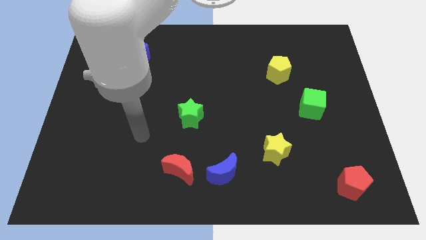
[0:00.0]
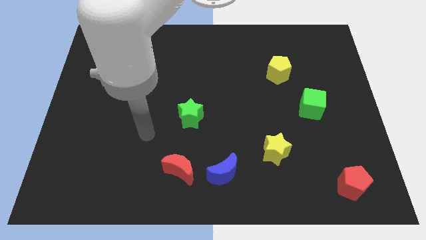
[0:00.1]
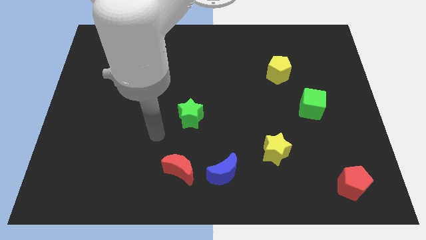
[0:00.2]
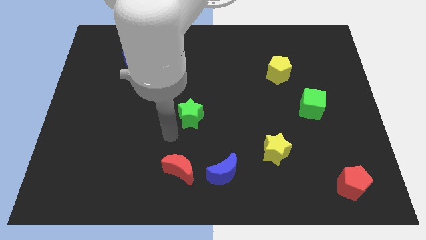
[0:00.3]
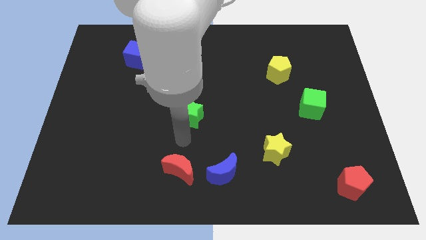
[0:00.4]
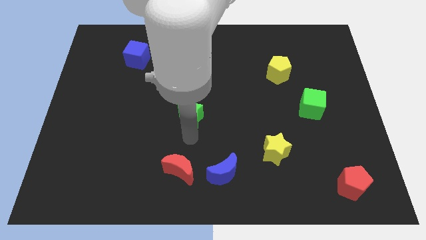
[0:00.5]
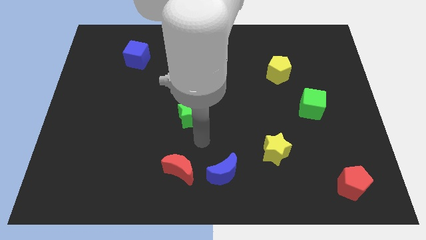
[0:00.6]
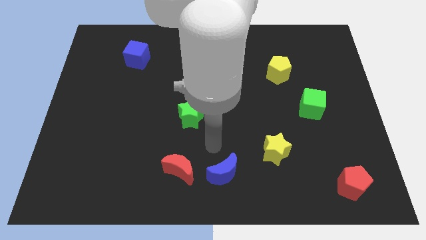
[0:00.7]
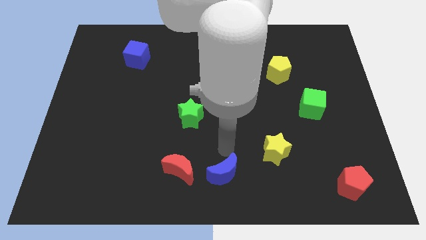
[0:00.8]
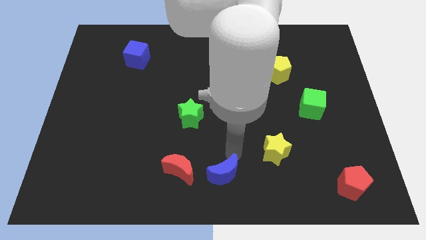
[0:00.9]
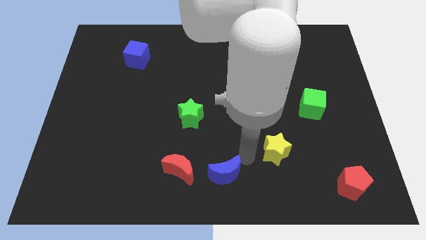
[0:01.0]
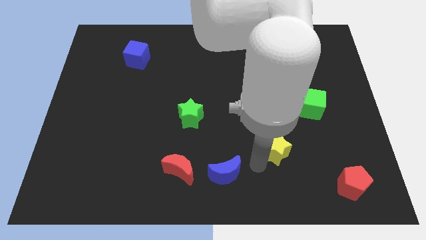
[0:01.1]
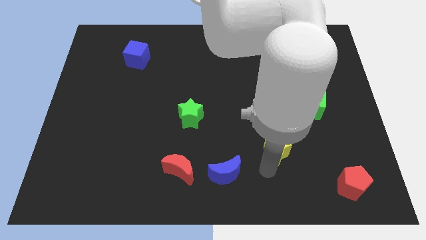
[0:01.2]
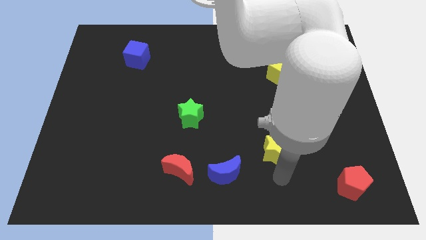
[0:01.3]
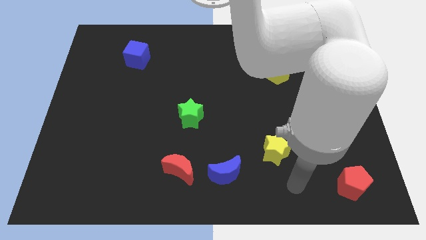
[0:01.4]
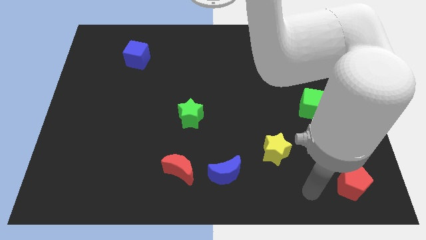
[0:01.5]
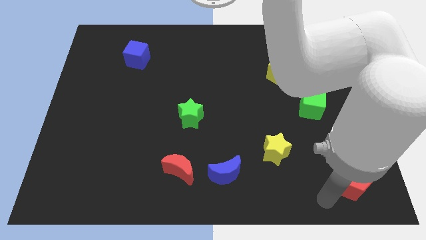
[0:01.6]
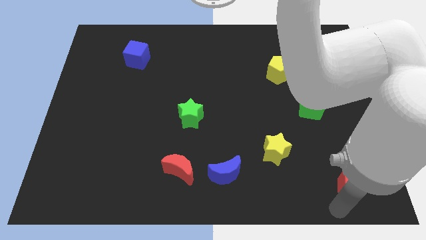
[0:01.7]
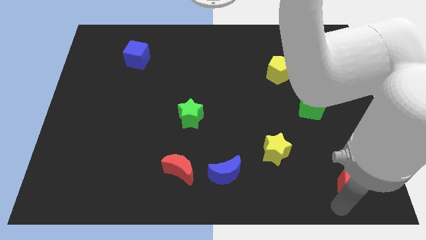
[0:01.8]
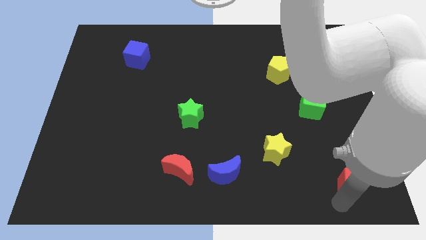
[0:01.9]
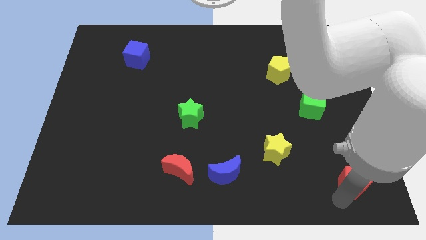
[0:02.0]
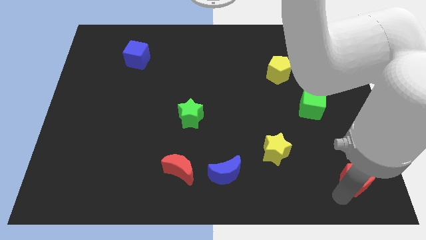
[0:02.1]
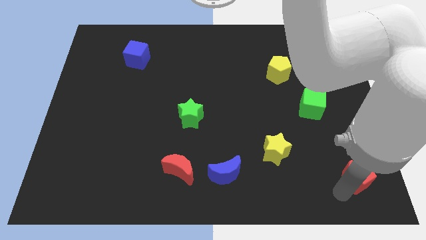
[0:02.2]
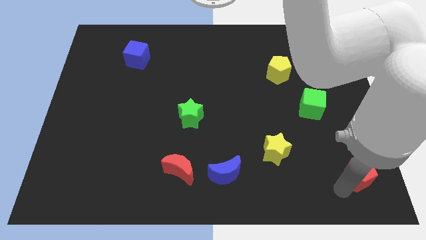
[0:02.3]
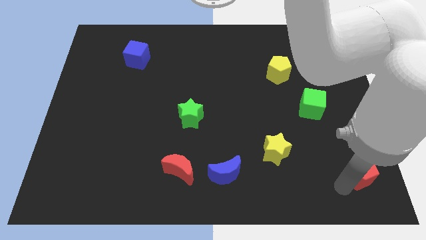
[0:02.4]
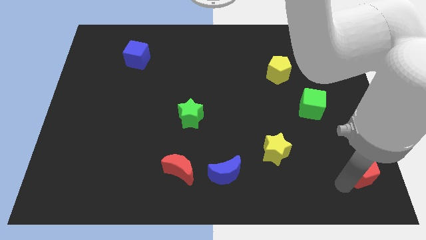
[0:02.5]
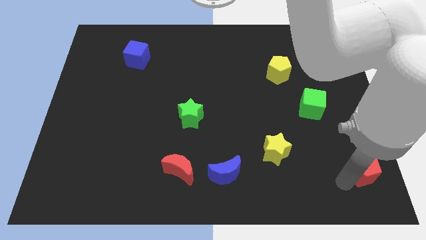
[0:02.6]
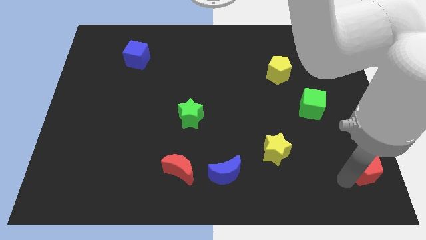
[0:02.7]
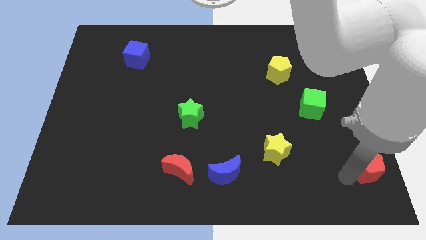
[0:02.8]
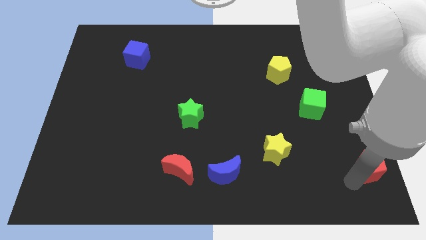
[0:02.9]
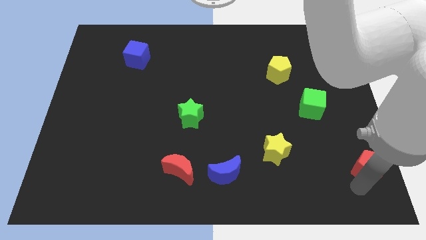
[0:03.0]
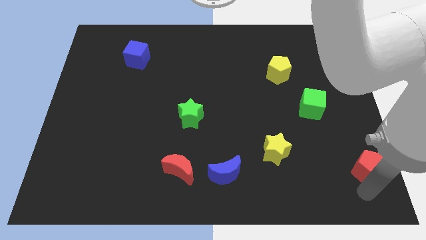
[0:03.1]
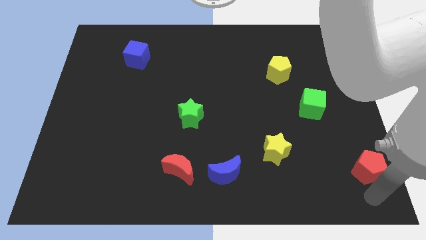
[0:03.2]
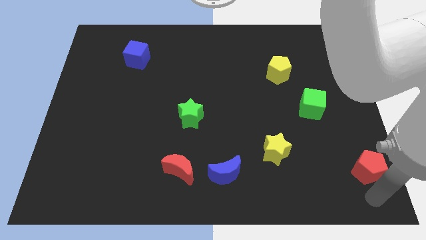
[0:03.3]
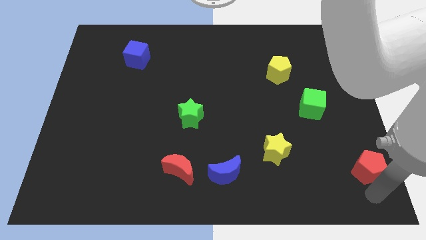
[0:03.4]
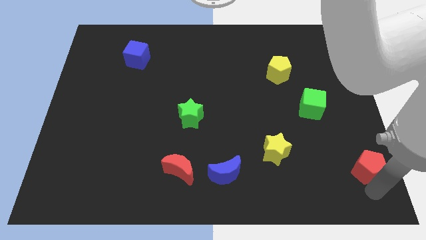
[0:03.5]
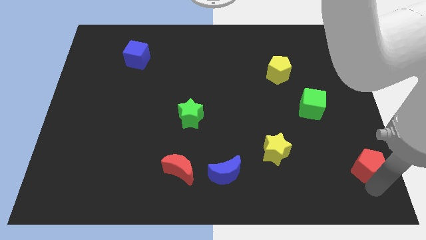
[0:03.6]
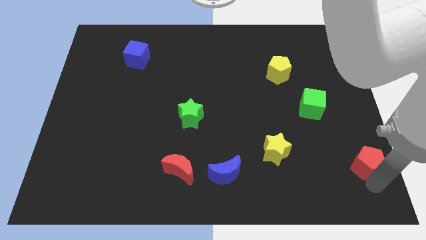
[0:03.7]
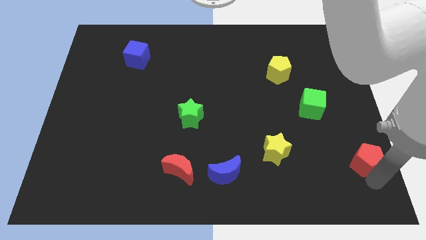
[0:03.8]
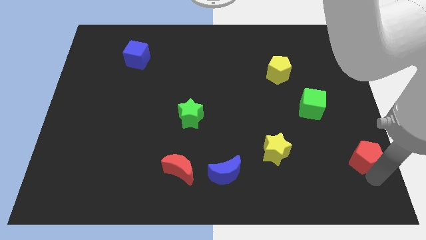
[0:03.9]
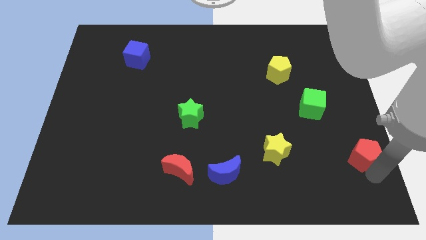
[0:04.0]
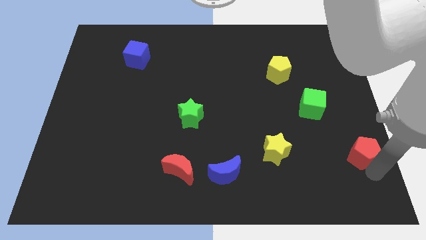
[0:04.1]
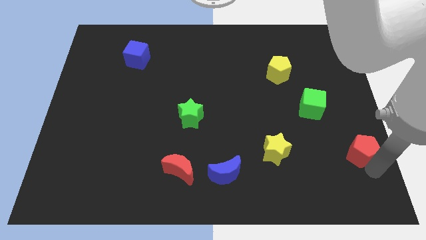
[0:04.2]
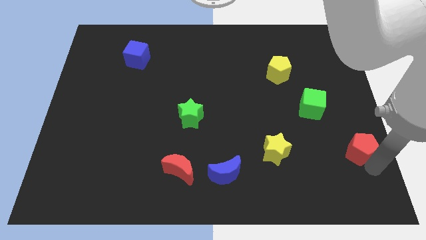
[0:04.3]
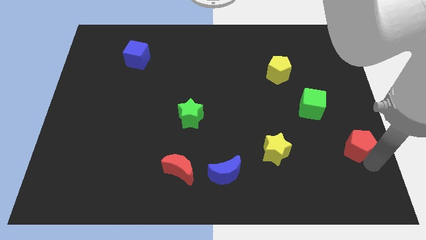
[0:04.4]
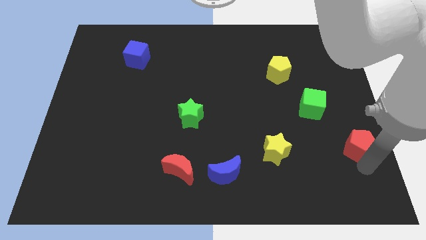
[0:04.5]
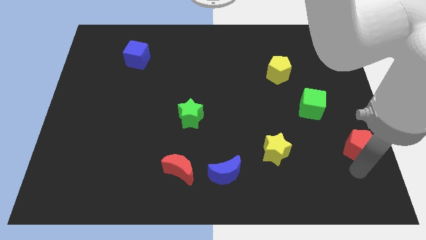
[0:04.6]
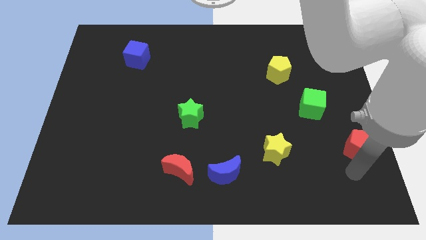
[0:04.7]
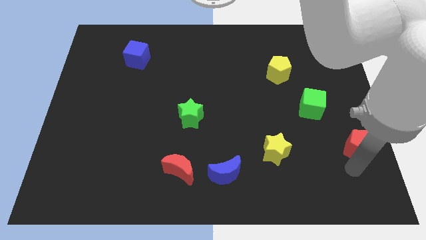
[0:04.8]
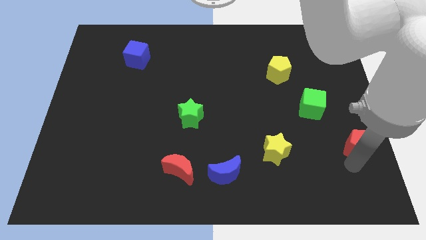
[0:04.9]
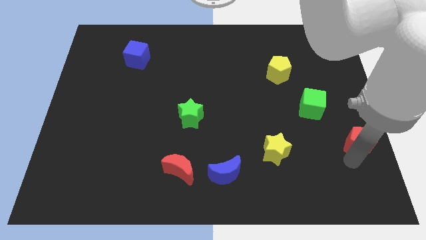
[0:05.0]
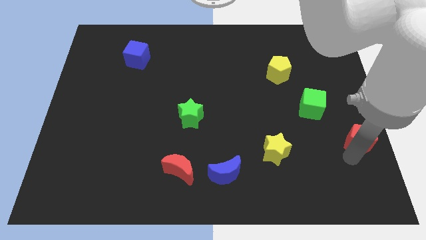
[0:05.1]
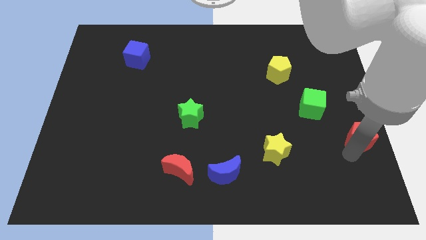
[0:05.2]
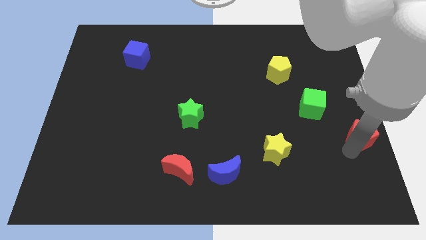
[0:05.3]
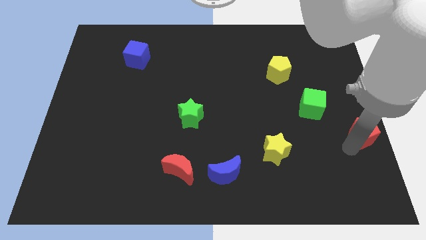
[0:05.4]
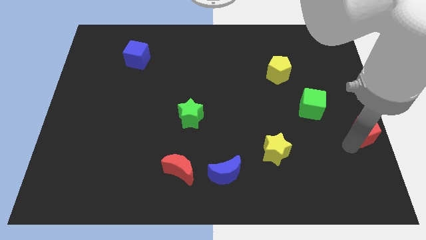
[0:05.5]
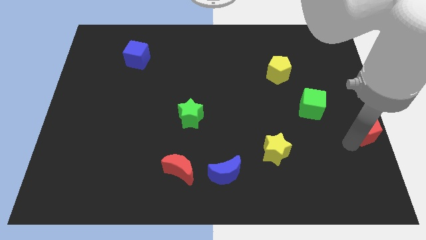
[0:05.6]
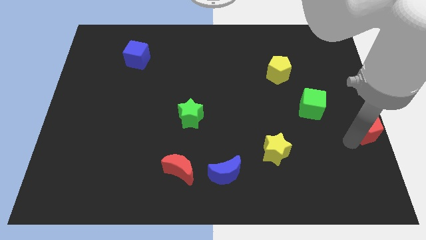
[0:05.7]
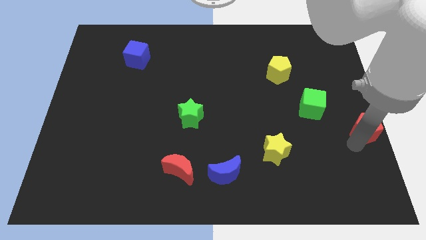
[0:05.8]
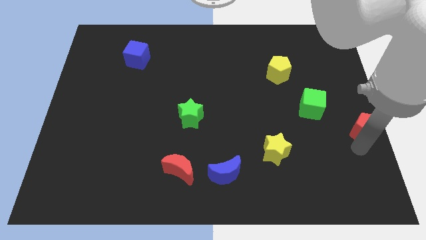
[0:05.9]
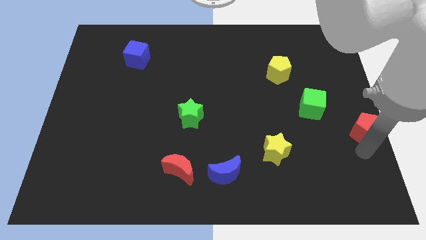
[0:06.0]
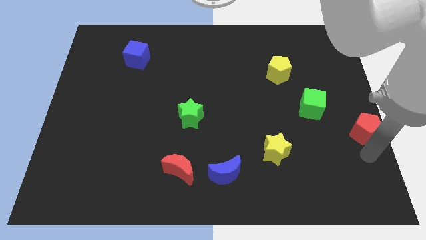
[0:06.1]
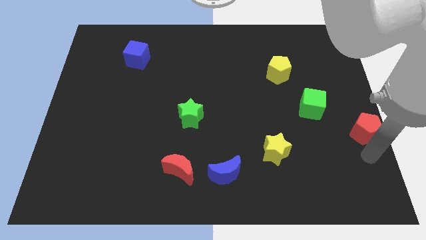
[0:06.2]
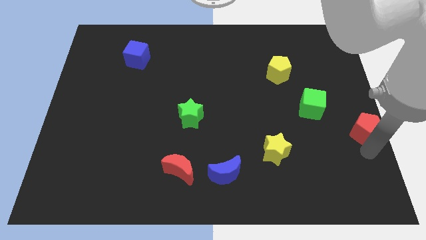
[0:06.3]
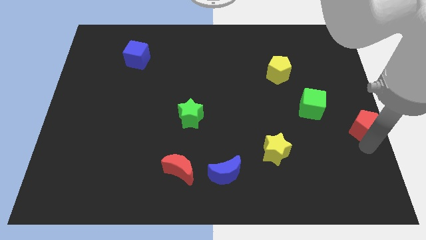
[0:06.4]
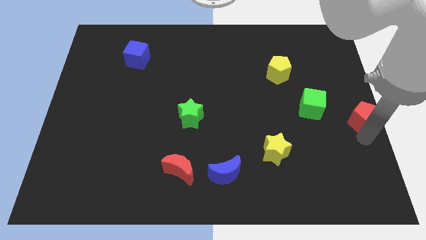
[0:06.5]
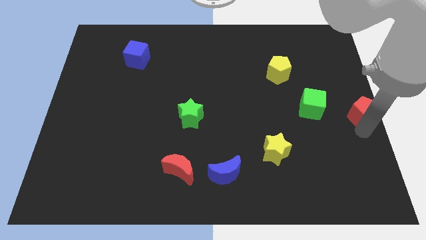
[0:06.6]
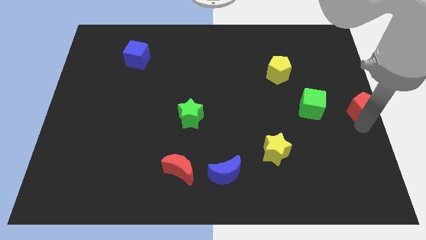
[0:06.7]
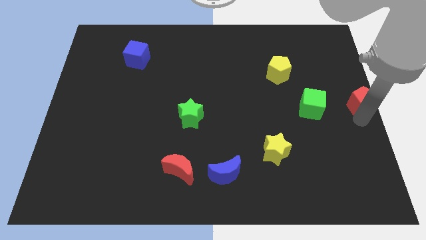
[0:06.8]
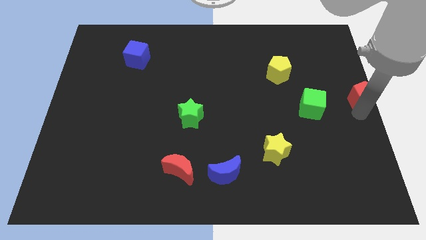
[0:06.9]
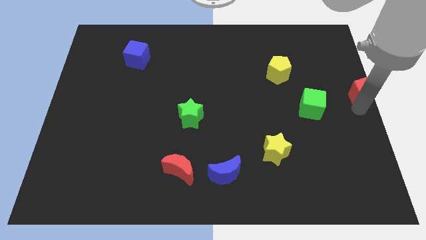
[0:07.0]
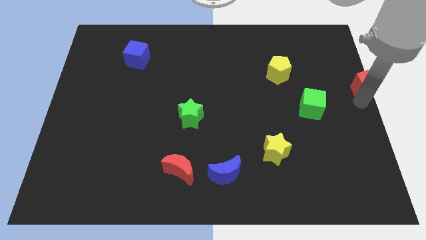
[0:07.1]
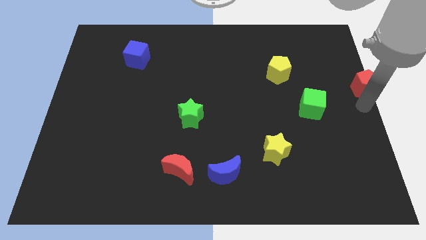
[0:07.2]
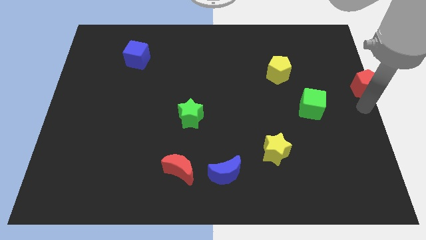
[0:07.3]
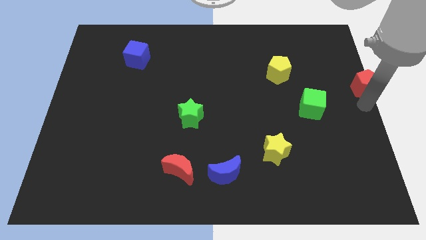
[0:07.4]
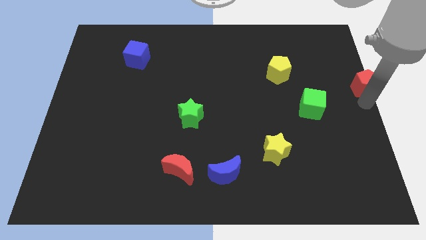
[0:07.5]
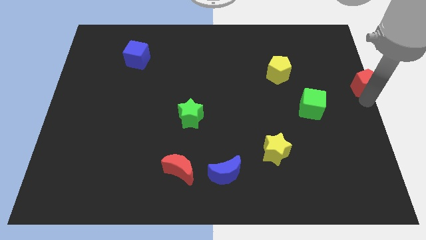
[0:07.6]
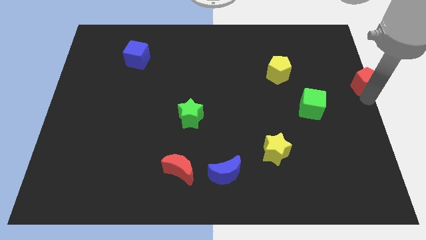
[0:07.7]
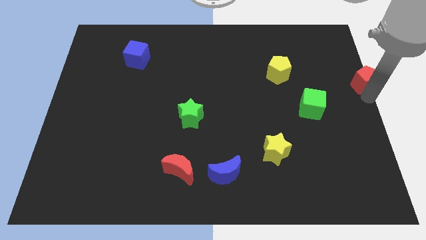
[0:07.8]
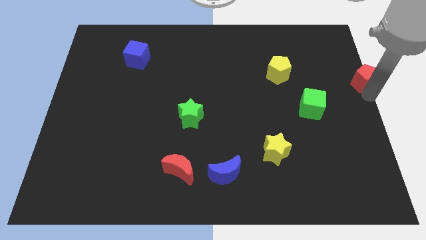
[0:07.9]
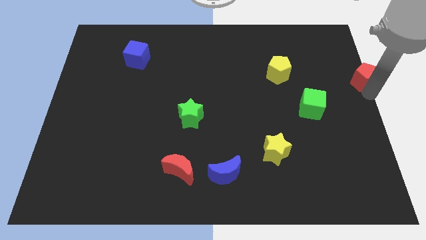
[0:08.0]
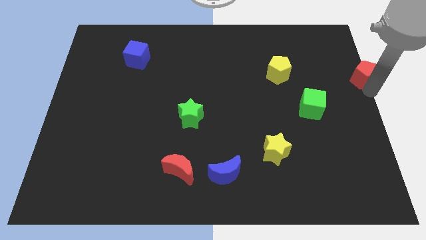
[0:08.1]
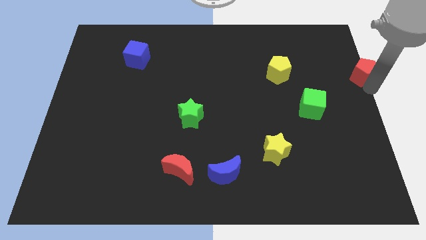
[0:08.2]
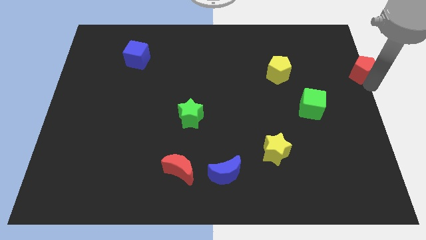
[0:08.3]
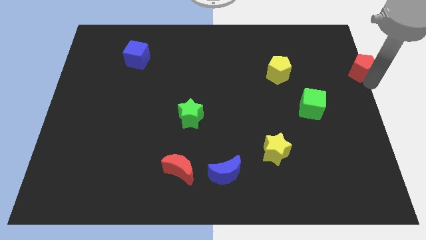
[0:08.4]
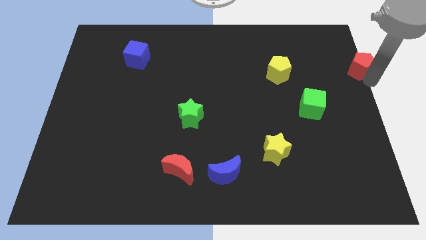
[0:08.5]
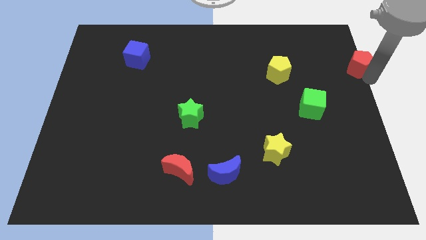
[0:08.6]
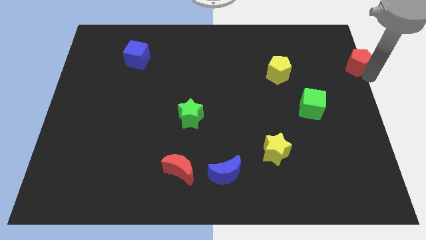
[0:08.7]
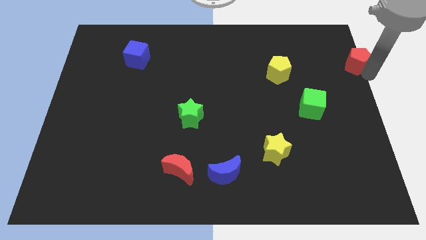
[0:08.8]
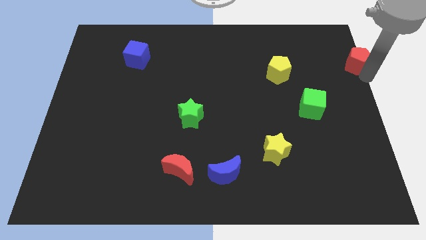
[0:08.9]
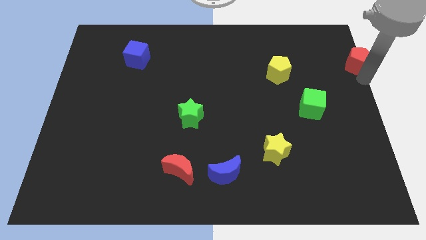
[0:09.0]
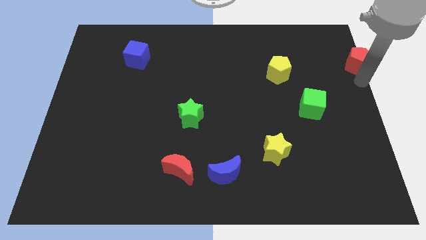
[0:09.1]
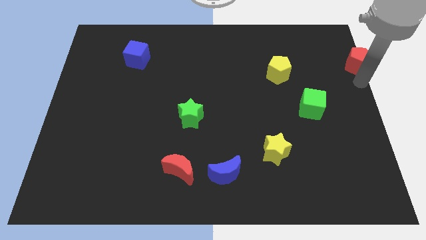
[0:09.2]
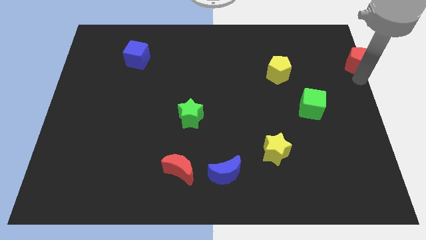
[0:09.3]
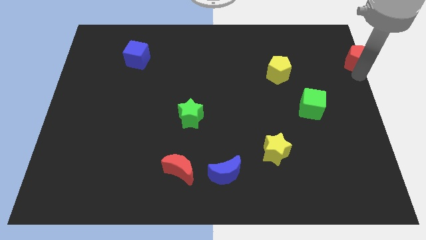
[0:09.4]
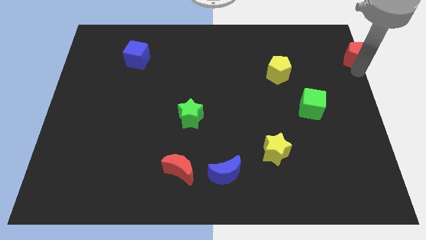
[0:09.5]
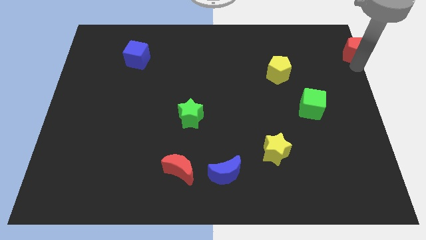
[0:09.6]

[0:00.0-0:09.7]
put the red pentagon to the upper right corner
